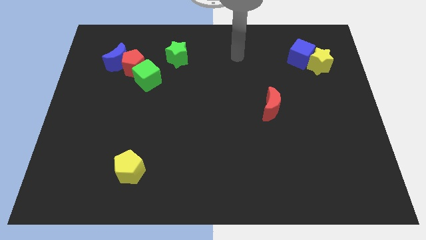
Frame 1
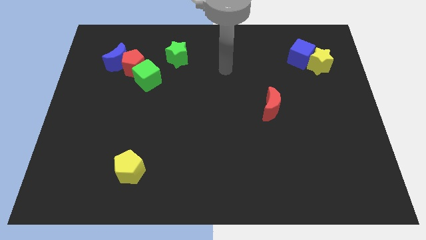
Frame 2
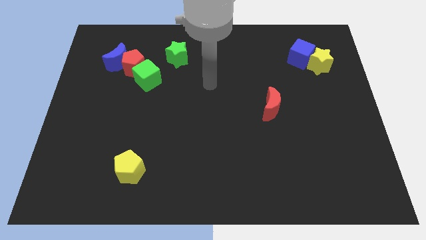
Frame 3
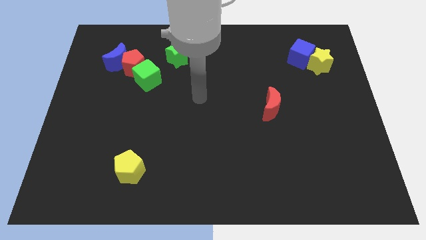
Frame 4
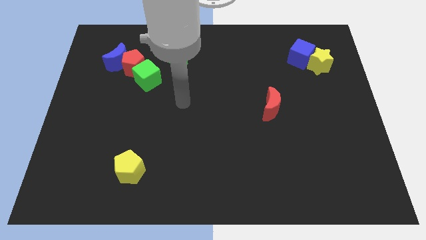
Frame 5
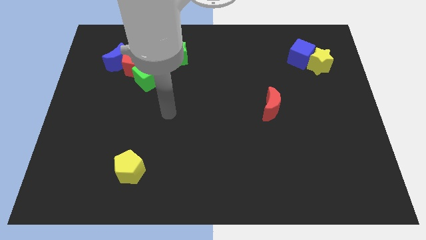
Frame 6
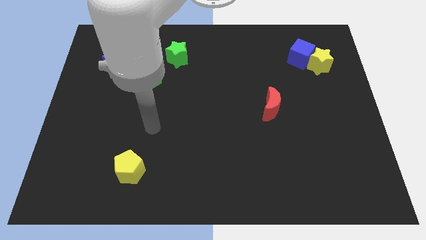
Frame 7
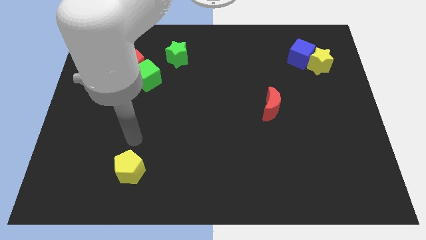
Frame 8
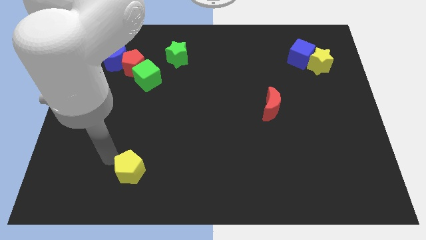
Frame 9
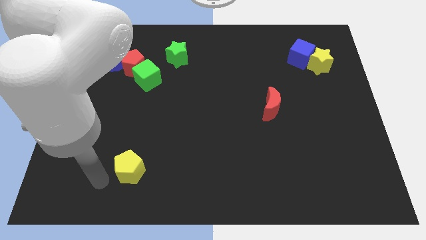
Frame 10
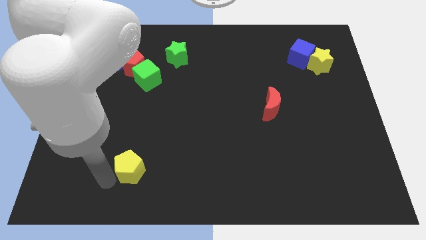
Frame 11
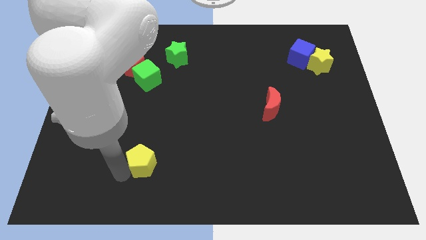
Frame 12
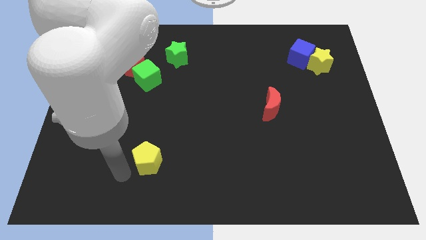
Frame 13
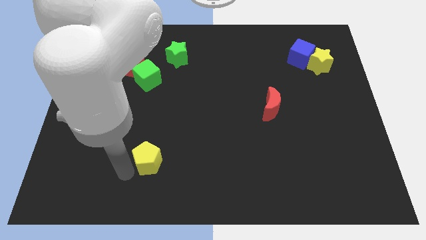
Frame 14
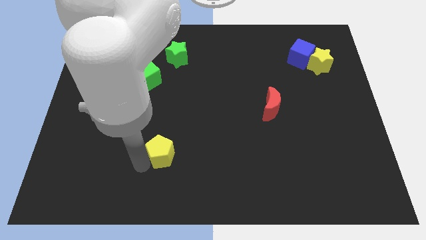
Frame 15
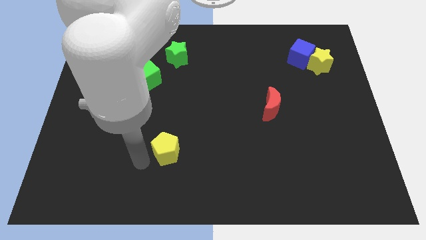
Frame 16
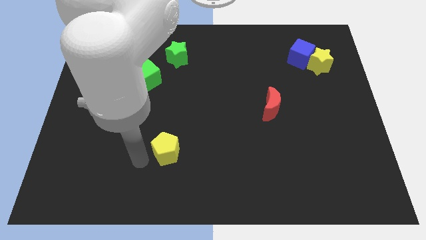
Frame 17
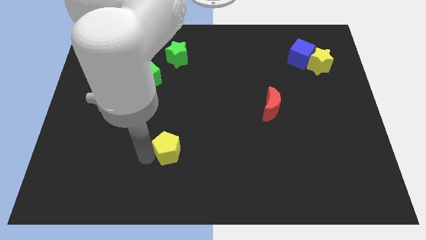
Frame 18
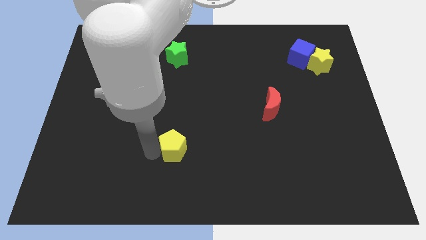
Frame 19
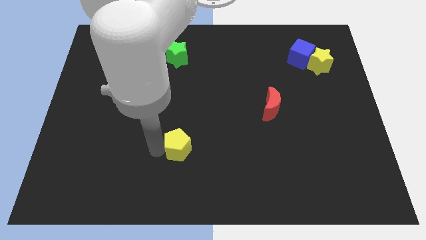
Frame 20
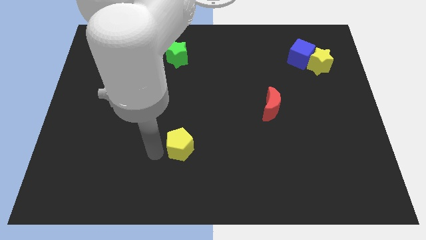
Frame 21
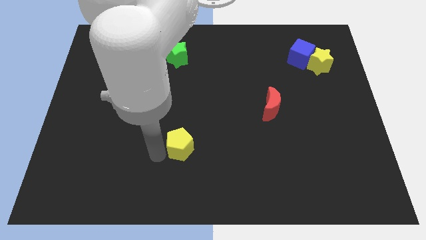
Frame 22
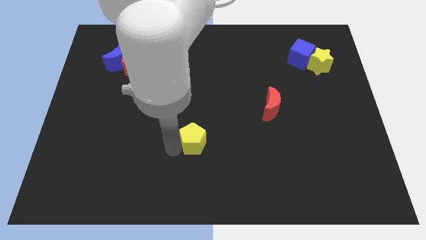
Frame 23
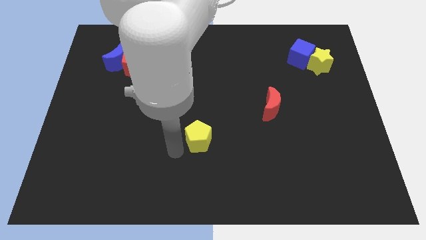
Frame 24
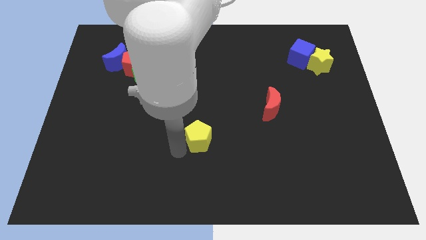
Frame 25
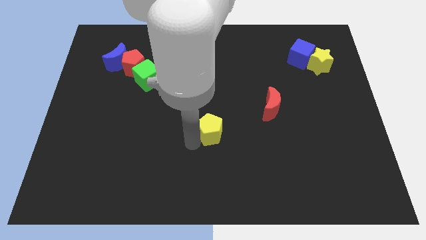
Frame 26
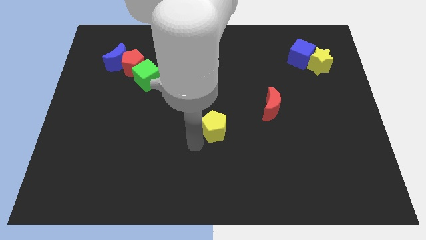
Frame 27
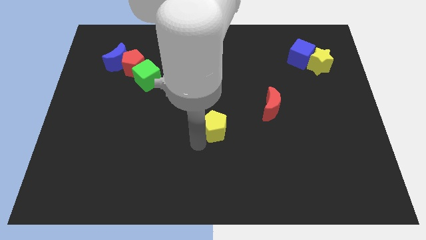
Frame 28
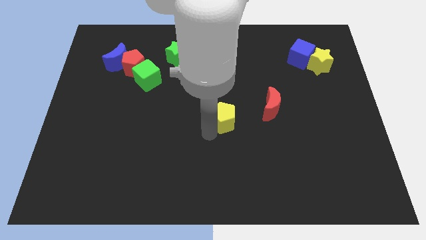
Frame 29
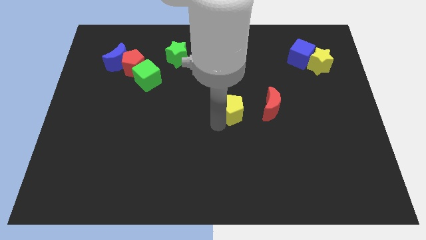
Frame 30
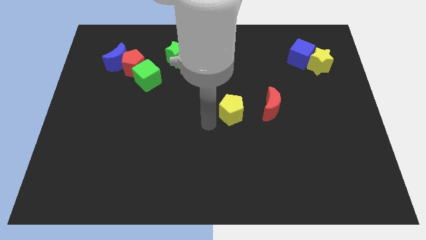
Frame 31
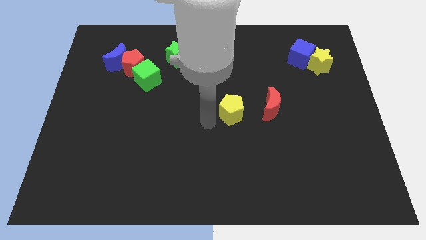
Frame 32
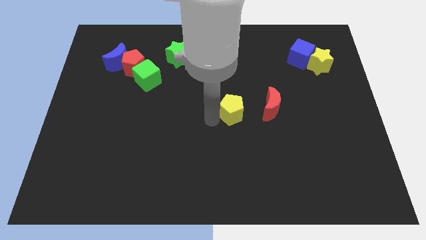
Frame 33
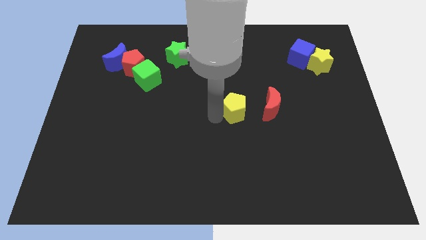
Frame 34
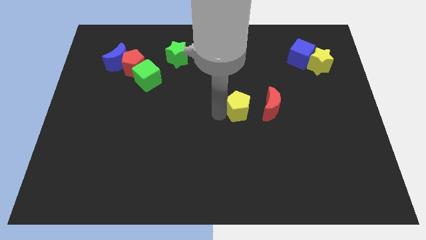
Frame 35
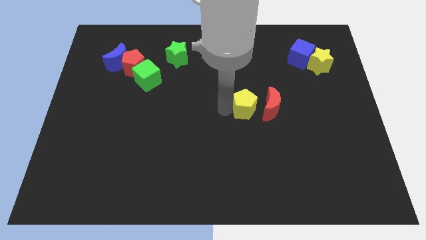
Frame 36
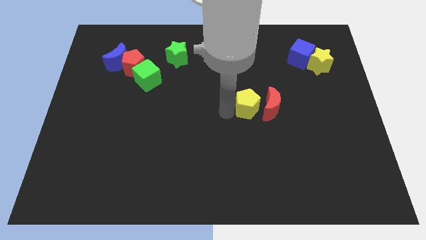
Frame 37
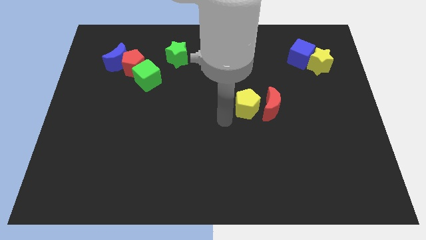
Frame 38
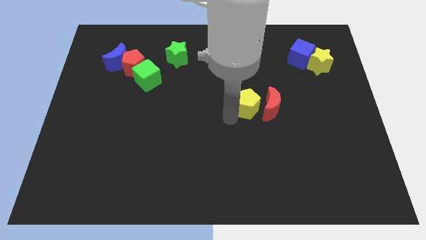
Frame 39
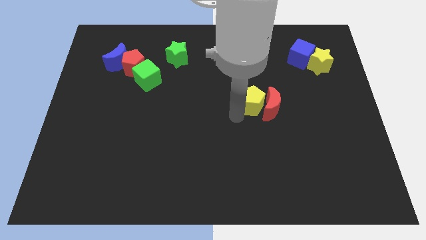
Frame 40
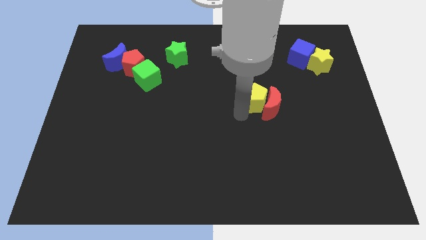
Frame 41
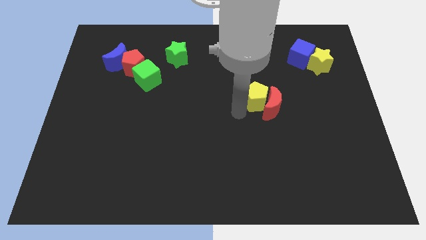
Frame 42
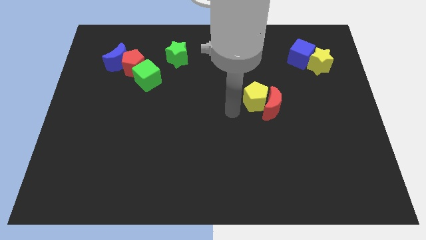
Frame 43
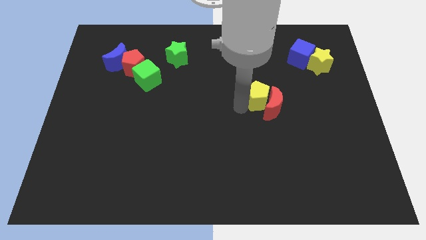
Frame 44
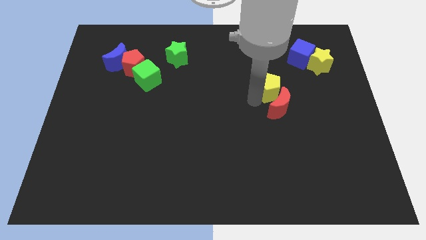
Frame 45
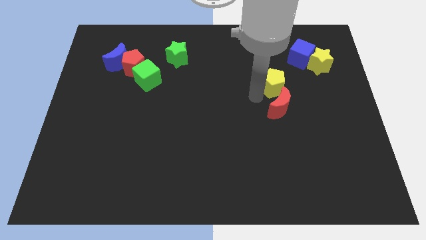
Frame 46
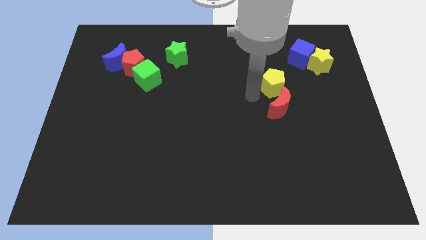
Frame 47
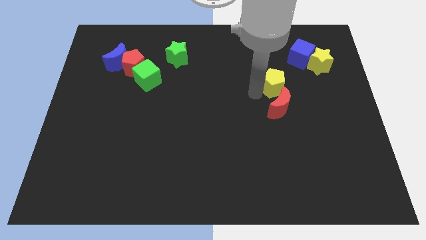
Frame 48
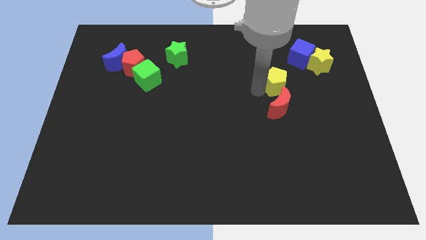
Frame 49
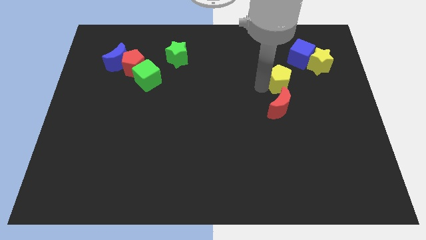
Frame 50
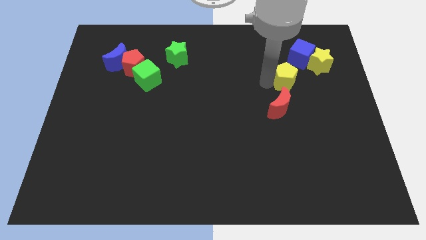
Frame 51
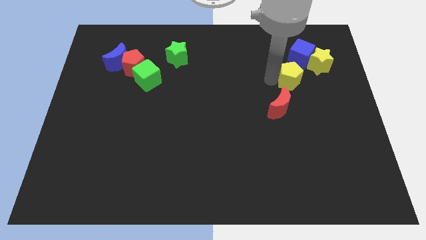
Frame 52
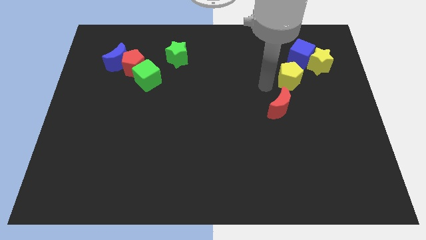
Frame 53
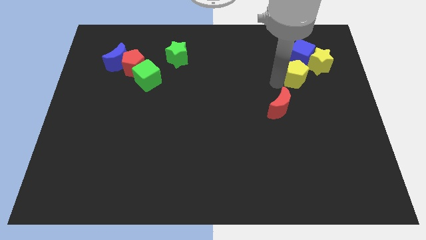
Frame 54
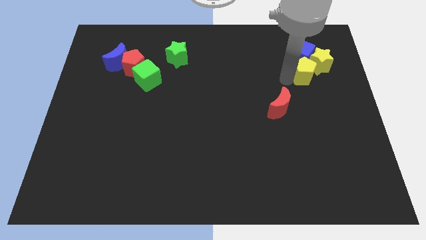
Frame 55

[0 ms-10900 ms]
push the yellow pentagon next to the yellow star

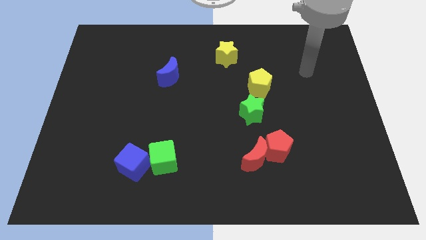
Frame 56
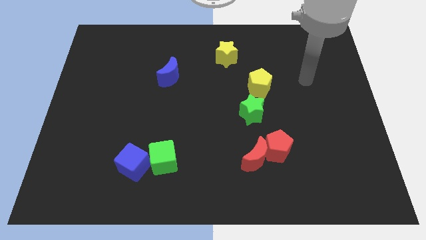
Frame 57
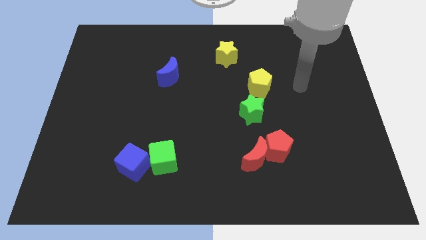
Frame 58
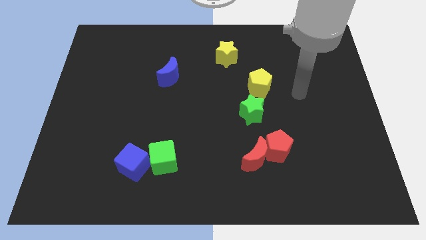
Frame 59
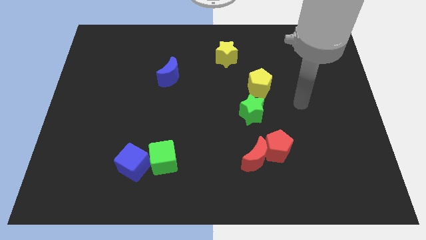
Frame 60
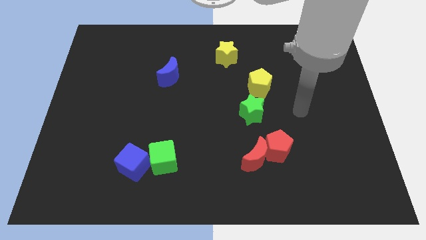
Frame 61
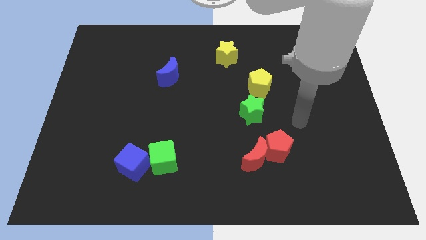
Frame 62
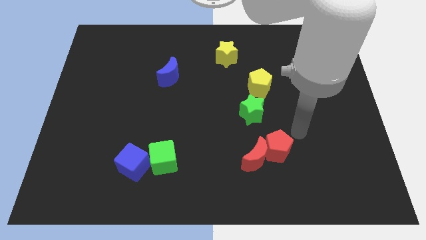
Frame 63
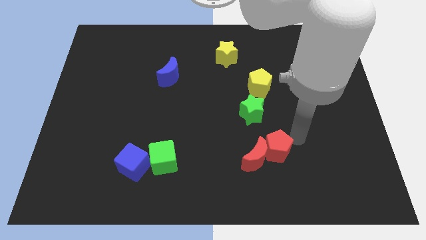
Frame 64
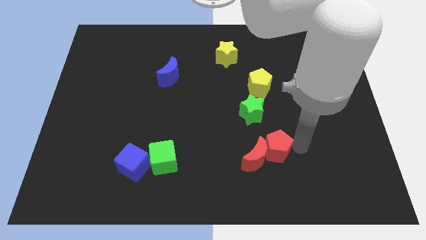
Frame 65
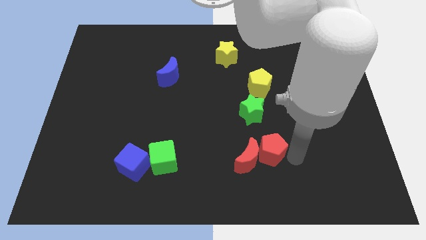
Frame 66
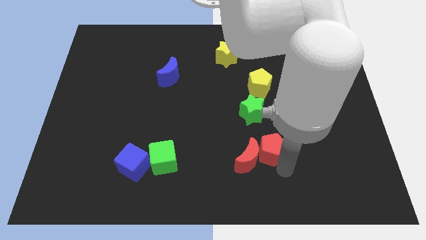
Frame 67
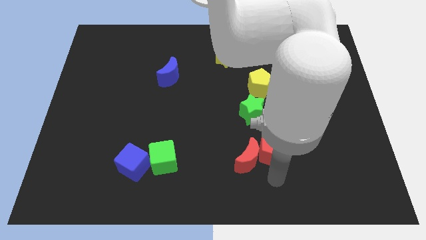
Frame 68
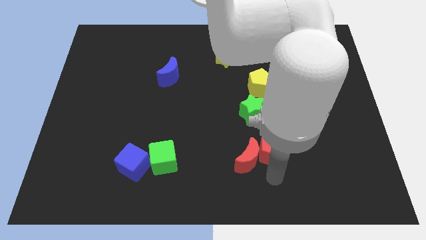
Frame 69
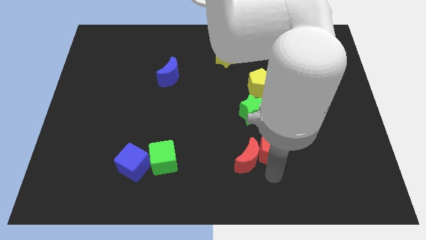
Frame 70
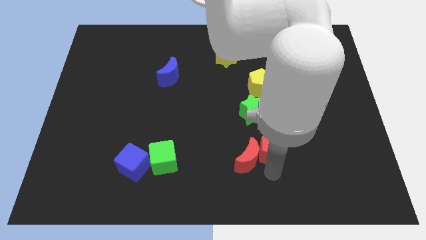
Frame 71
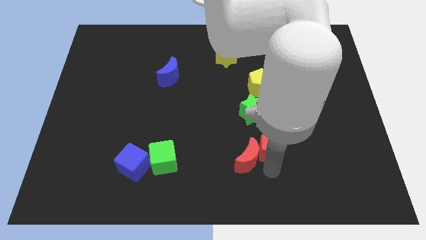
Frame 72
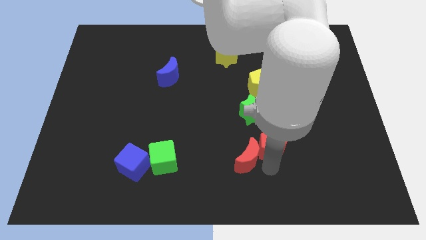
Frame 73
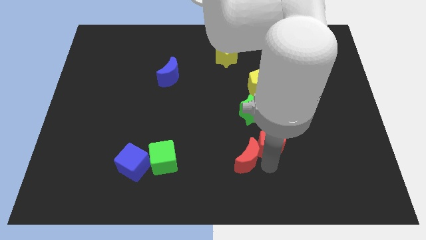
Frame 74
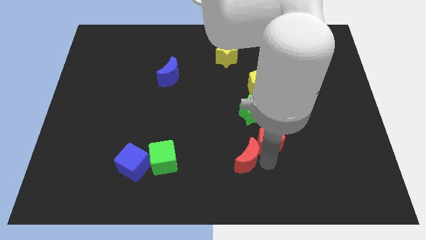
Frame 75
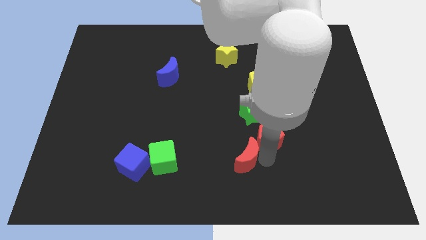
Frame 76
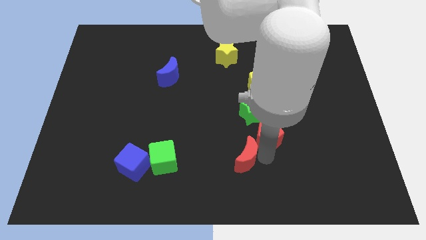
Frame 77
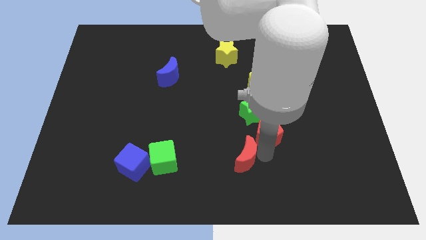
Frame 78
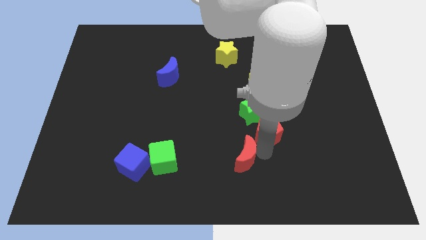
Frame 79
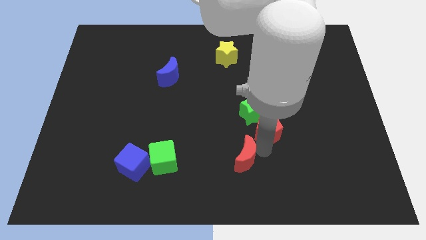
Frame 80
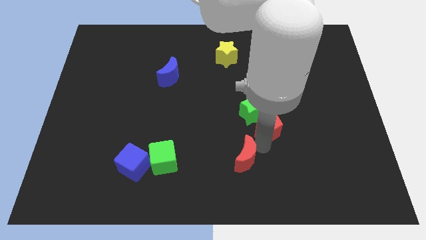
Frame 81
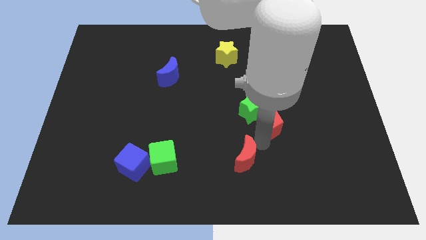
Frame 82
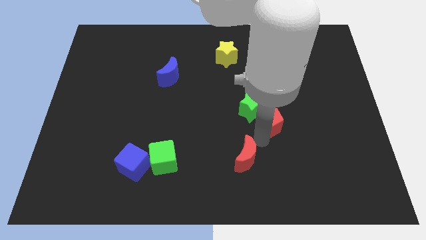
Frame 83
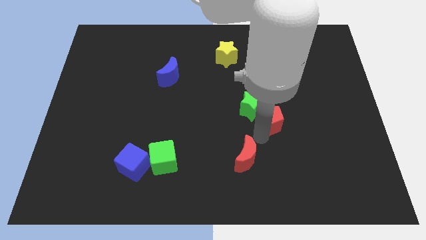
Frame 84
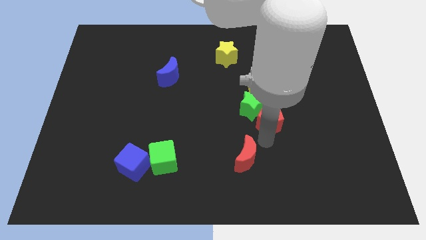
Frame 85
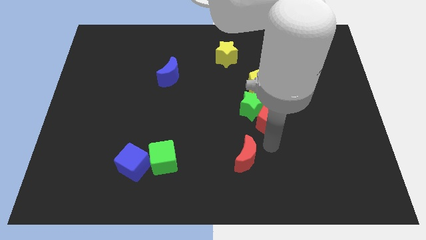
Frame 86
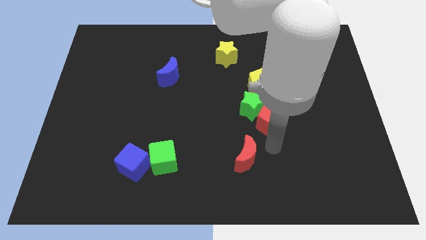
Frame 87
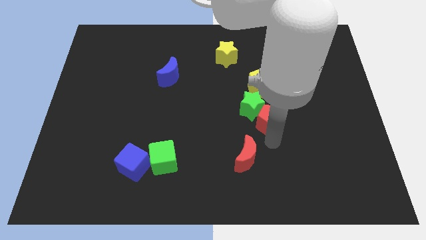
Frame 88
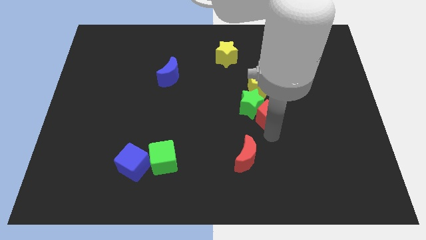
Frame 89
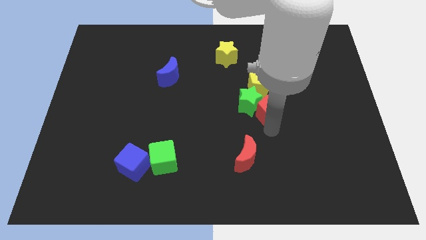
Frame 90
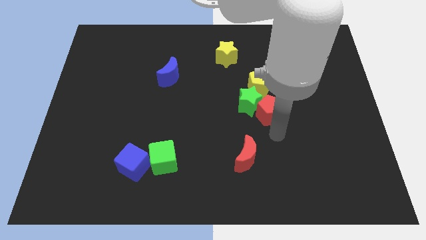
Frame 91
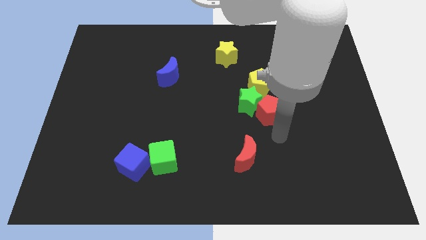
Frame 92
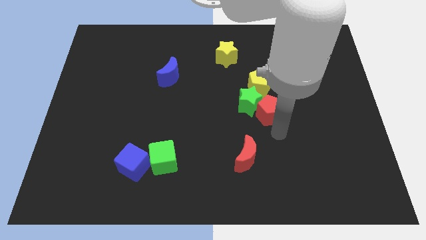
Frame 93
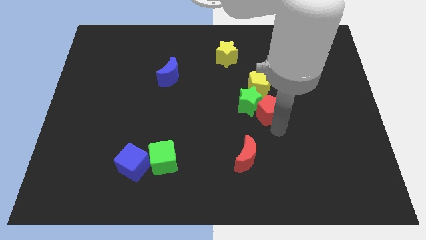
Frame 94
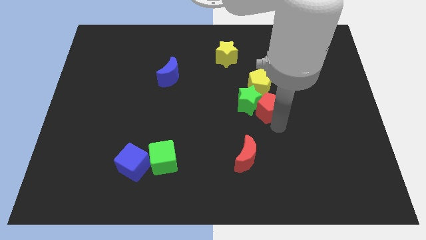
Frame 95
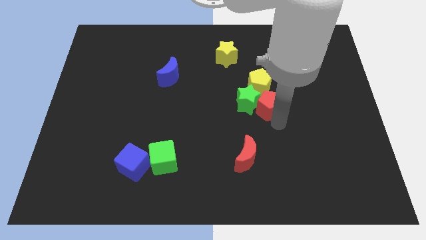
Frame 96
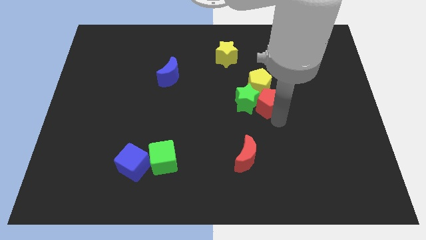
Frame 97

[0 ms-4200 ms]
put the red pentagon next to the yellow pentagon
